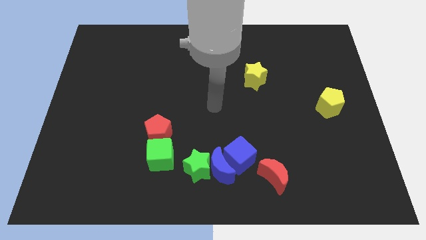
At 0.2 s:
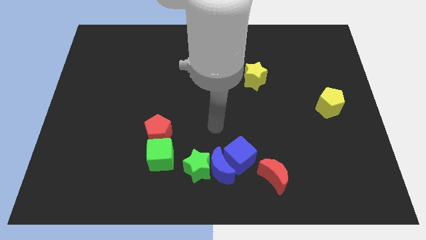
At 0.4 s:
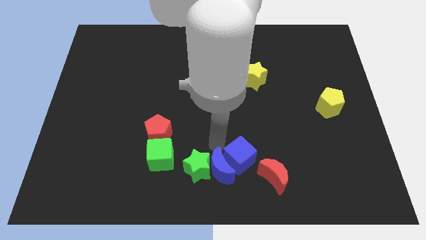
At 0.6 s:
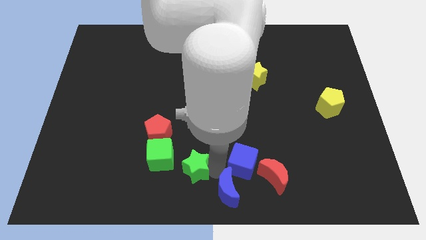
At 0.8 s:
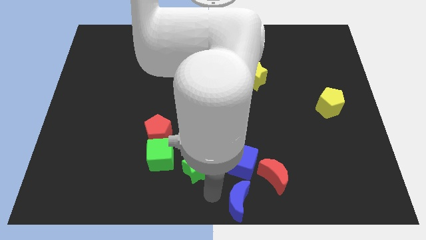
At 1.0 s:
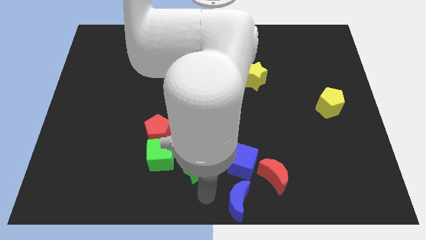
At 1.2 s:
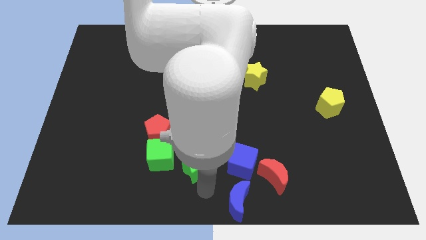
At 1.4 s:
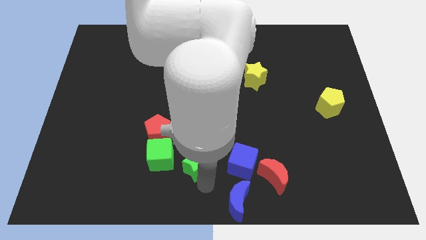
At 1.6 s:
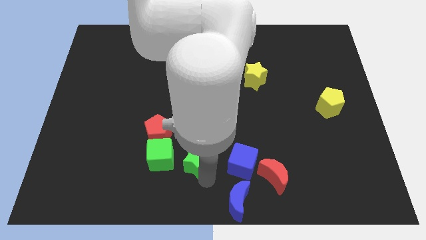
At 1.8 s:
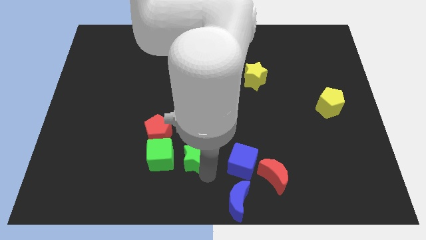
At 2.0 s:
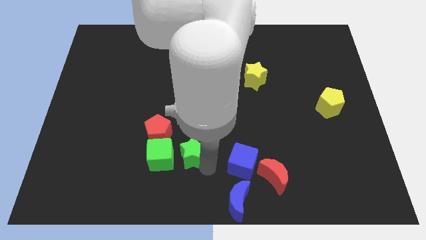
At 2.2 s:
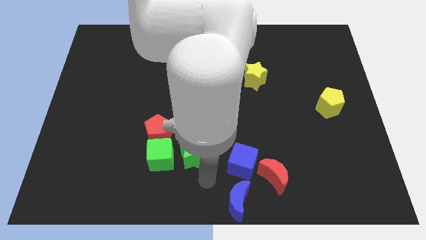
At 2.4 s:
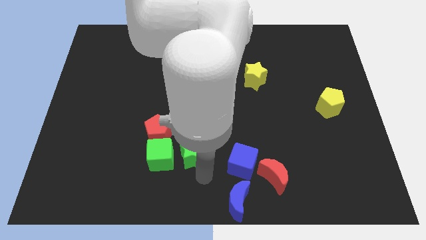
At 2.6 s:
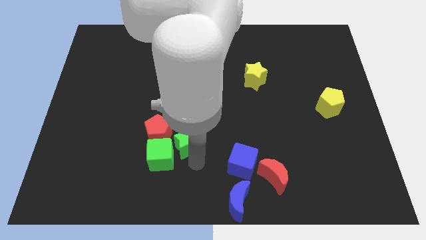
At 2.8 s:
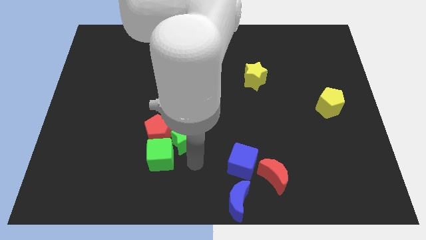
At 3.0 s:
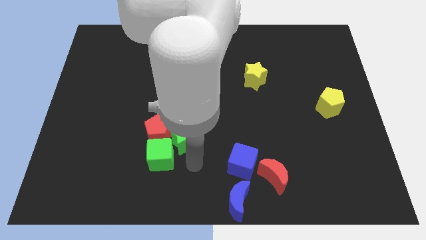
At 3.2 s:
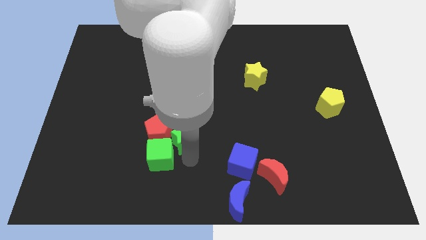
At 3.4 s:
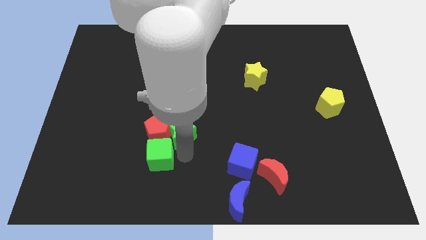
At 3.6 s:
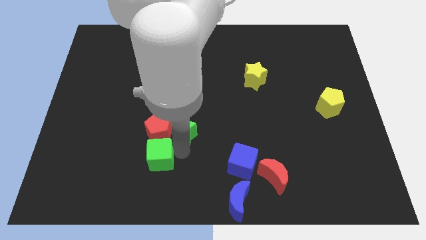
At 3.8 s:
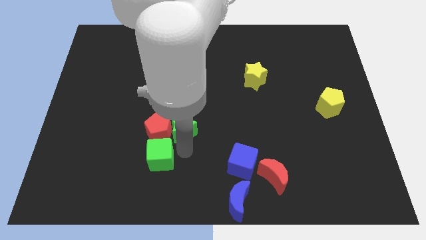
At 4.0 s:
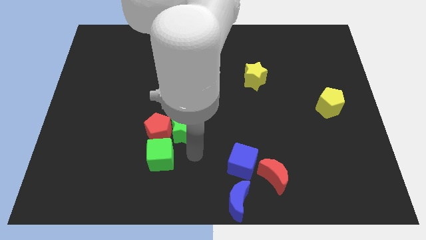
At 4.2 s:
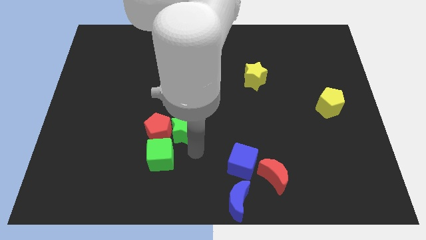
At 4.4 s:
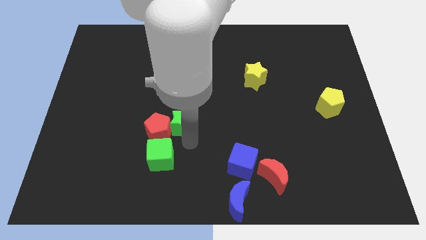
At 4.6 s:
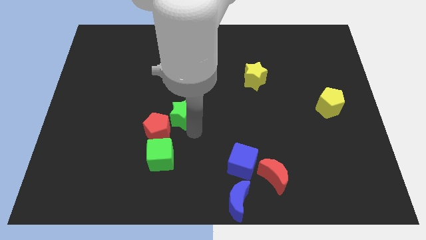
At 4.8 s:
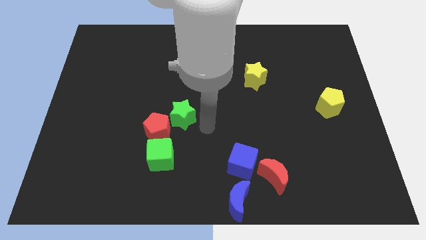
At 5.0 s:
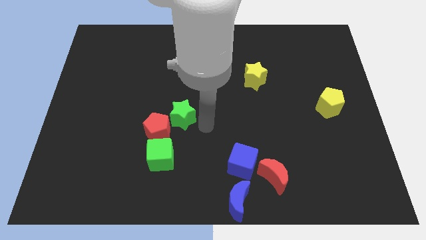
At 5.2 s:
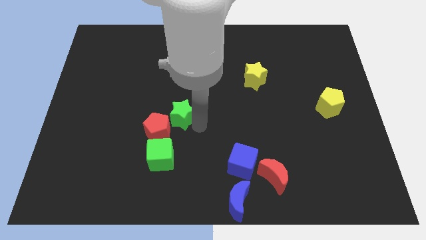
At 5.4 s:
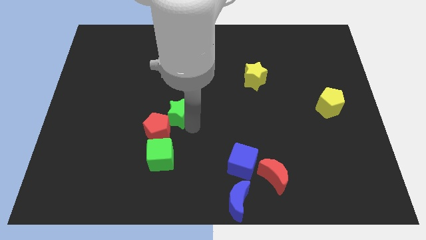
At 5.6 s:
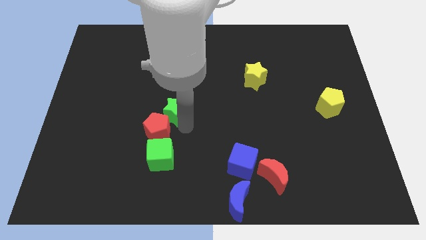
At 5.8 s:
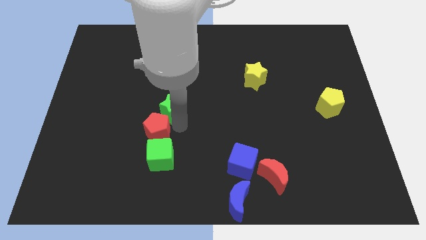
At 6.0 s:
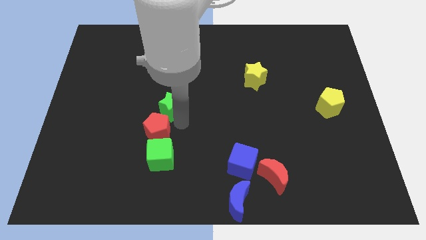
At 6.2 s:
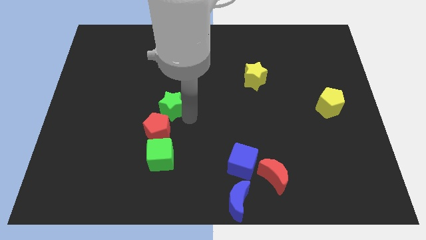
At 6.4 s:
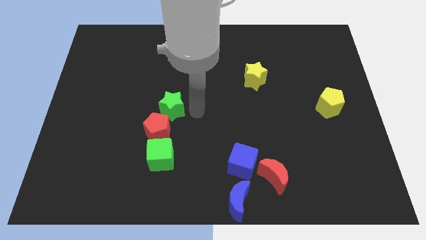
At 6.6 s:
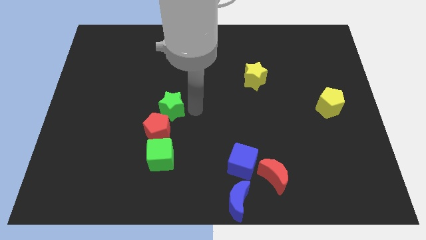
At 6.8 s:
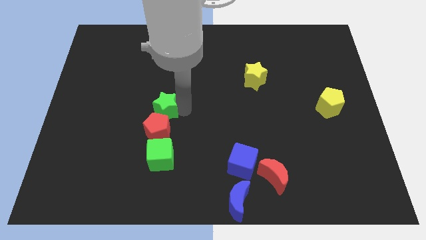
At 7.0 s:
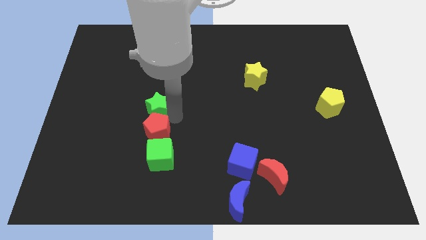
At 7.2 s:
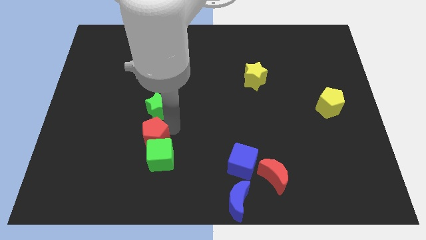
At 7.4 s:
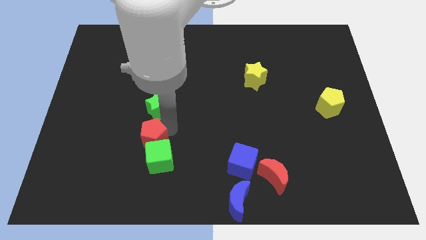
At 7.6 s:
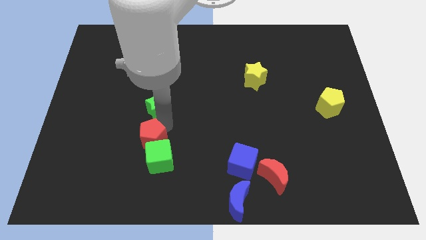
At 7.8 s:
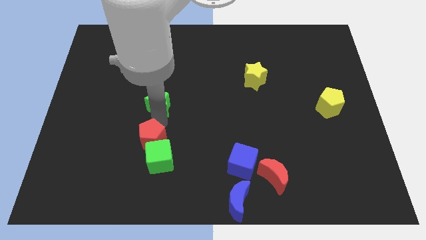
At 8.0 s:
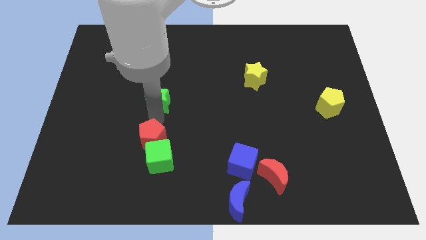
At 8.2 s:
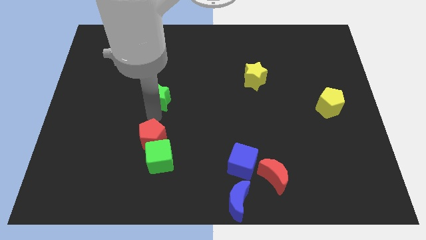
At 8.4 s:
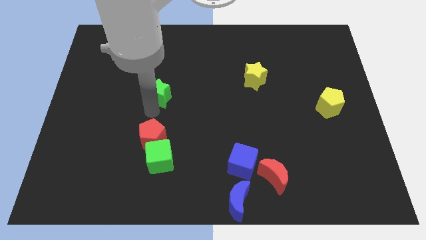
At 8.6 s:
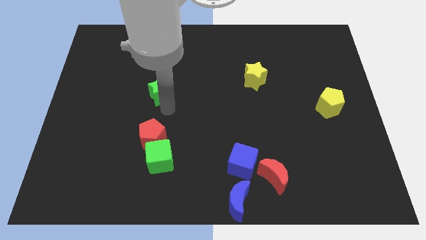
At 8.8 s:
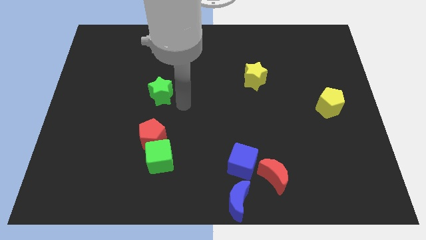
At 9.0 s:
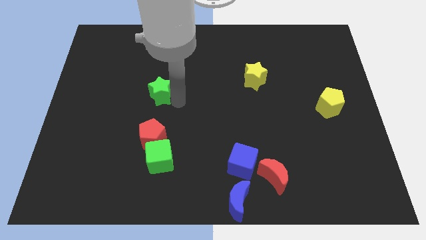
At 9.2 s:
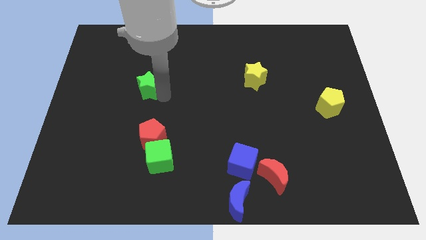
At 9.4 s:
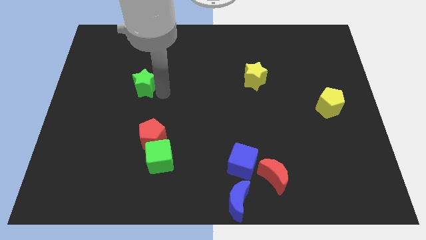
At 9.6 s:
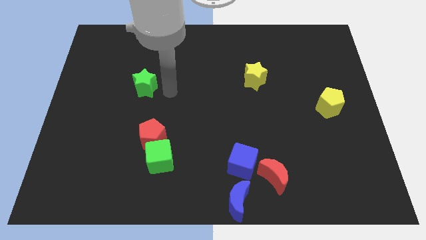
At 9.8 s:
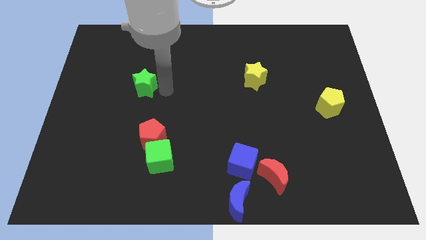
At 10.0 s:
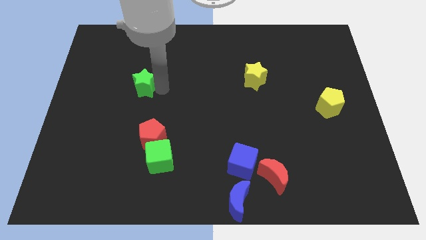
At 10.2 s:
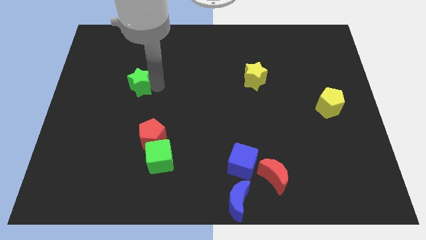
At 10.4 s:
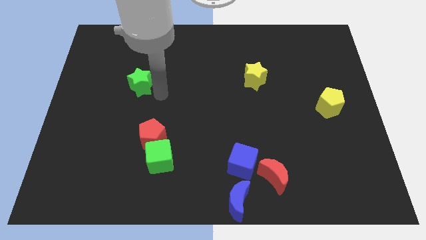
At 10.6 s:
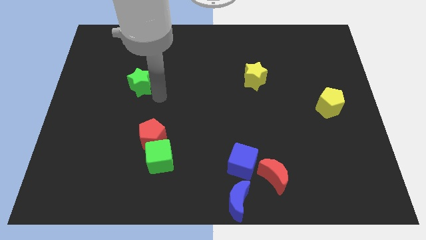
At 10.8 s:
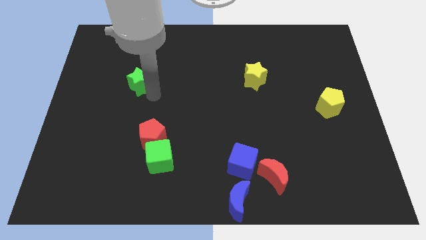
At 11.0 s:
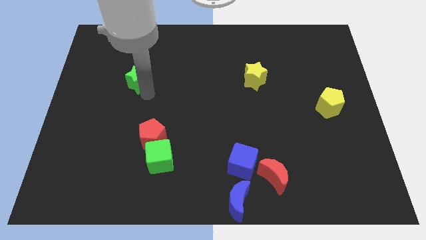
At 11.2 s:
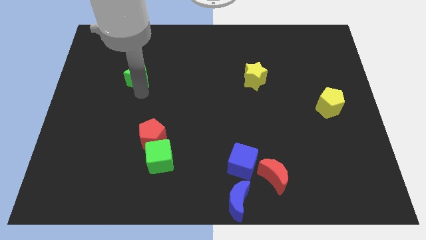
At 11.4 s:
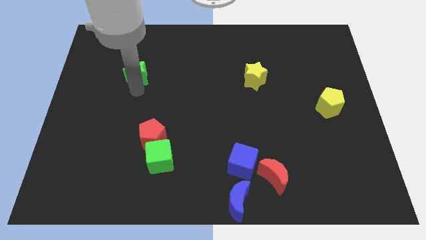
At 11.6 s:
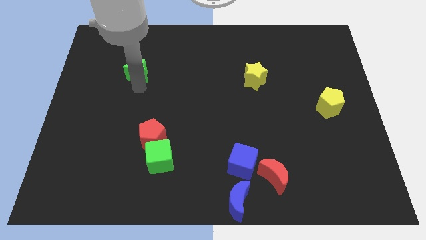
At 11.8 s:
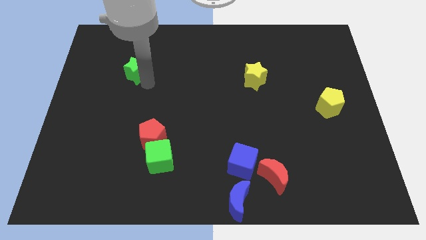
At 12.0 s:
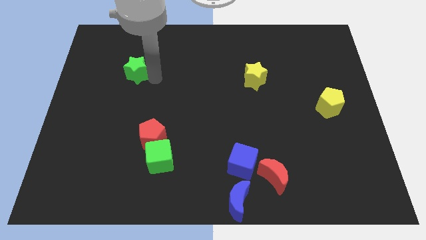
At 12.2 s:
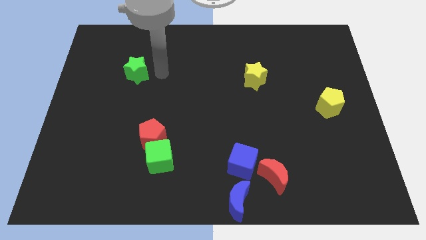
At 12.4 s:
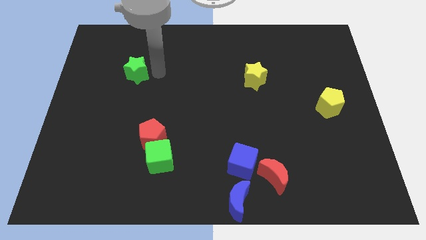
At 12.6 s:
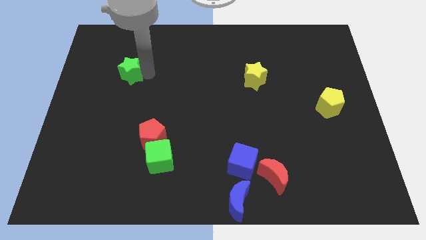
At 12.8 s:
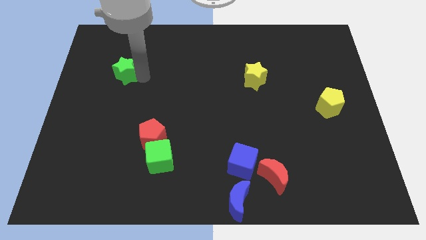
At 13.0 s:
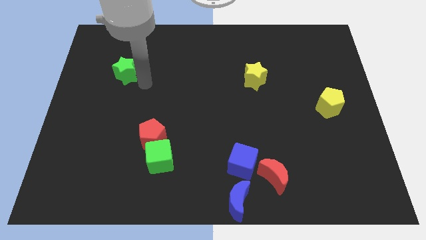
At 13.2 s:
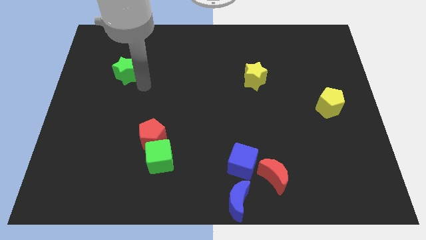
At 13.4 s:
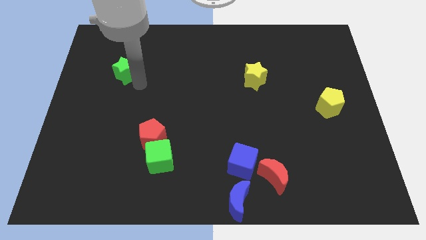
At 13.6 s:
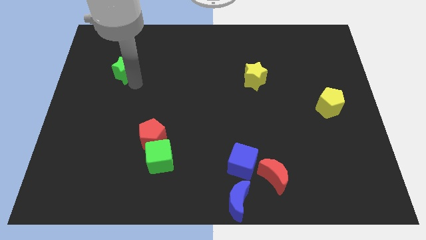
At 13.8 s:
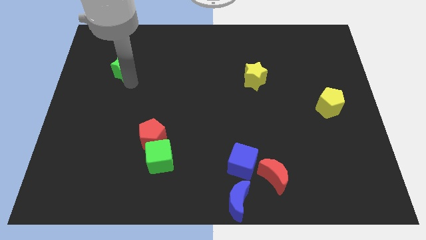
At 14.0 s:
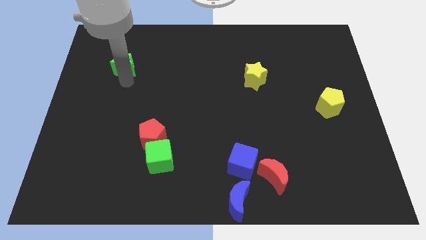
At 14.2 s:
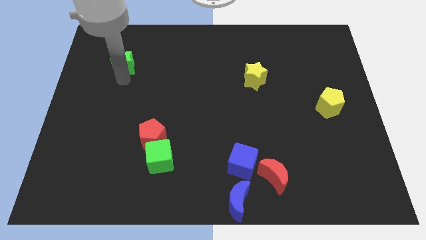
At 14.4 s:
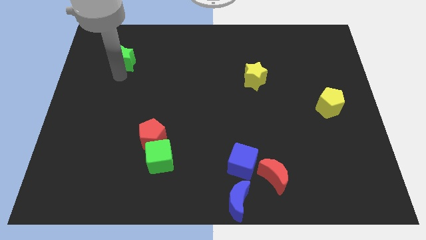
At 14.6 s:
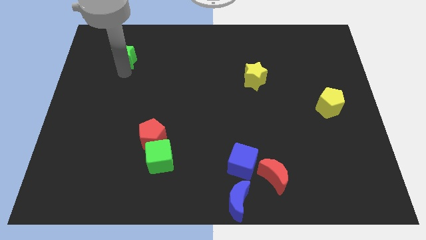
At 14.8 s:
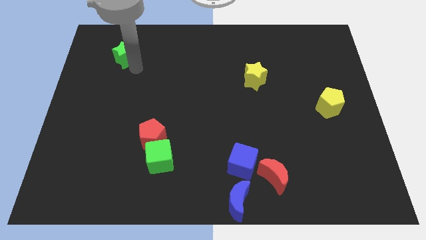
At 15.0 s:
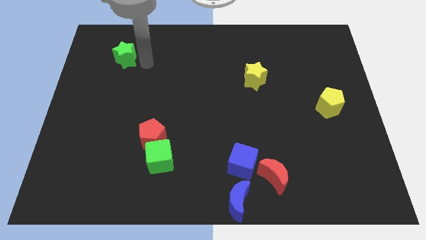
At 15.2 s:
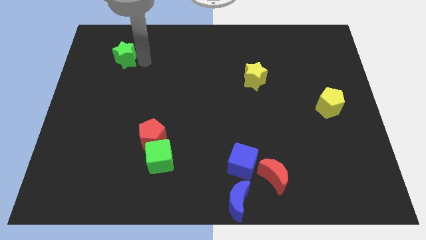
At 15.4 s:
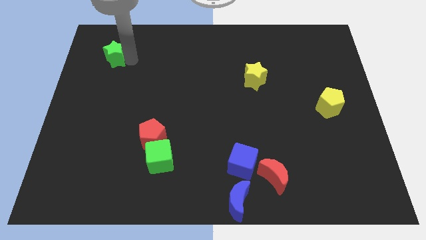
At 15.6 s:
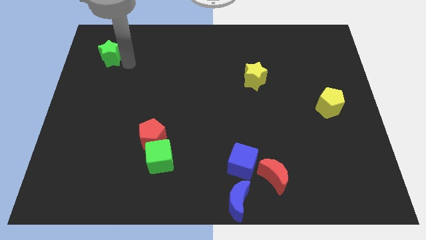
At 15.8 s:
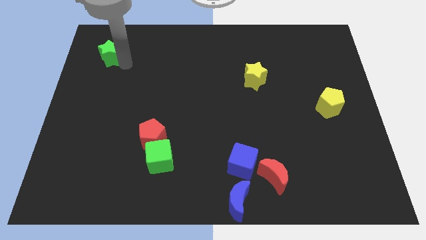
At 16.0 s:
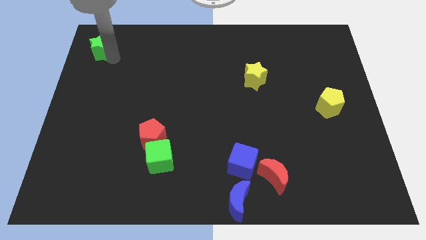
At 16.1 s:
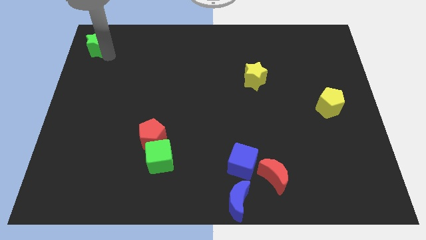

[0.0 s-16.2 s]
push the green star to the top left
